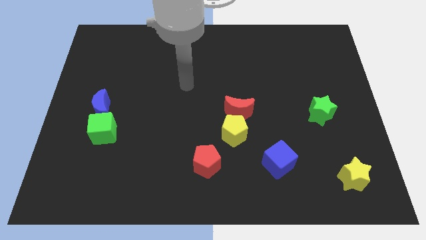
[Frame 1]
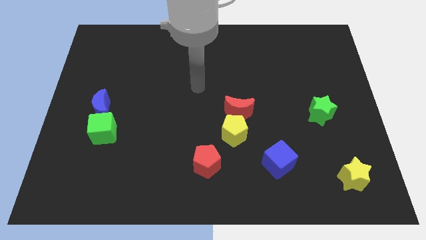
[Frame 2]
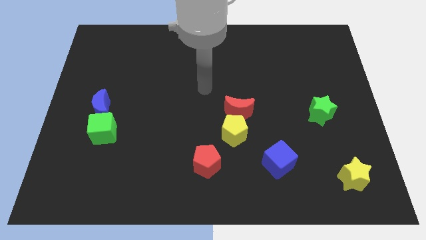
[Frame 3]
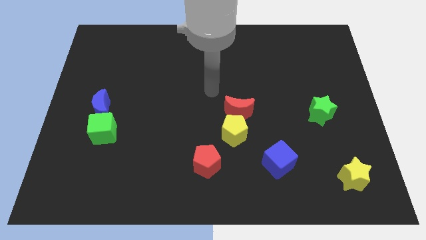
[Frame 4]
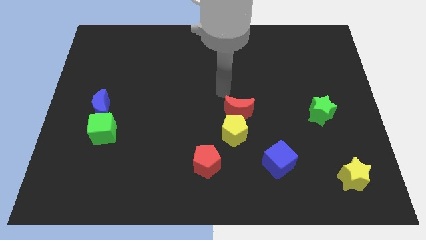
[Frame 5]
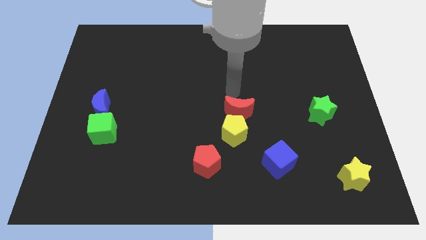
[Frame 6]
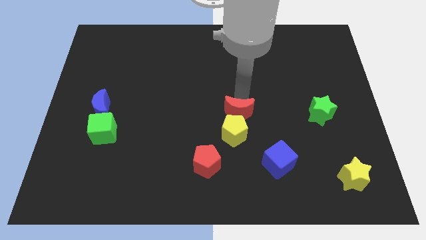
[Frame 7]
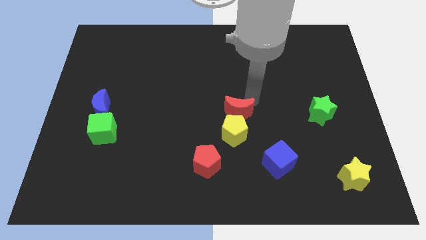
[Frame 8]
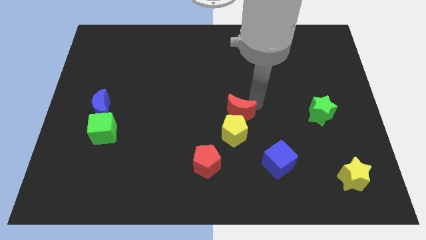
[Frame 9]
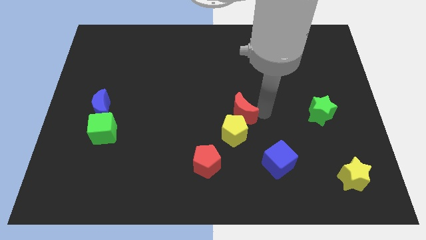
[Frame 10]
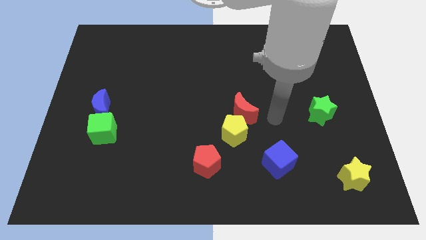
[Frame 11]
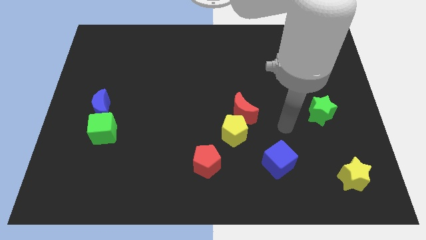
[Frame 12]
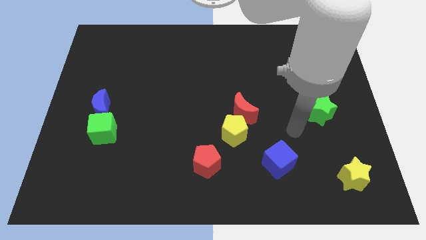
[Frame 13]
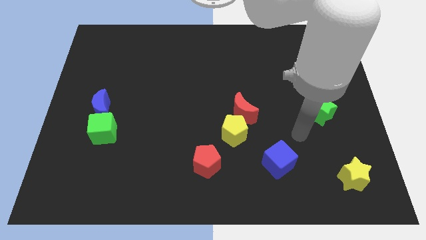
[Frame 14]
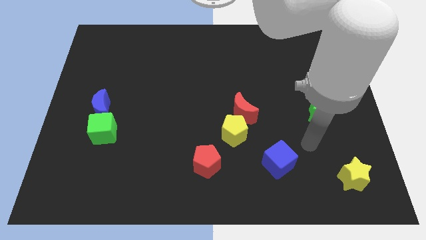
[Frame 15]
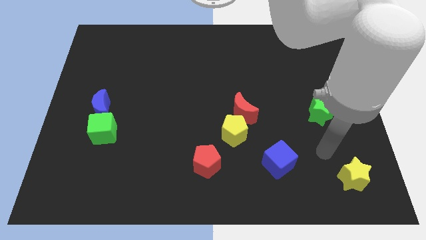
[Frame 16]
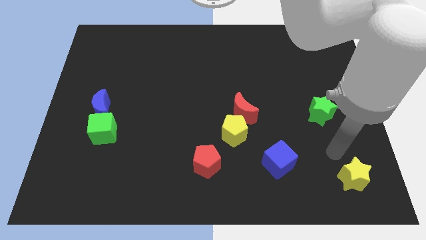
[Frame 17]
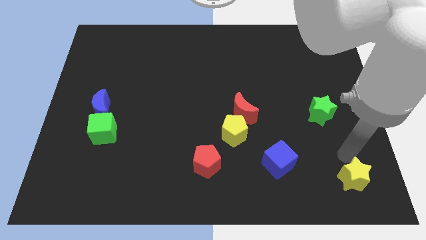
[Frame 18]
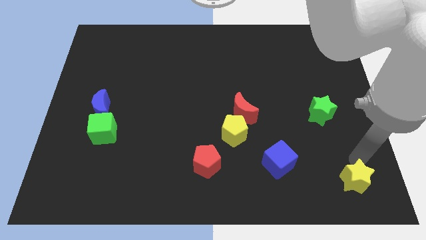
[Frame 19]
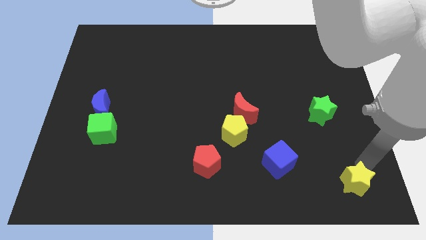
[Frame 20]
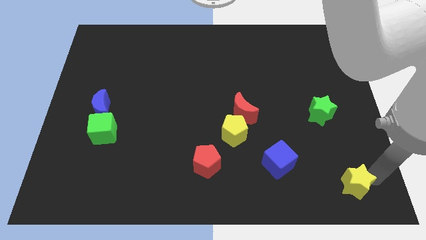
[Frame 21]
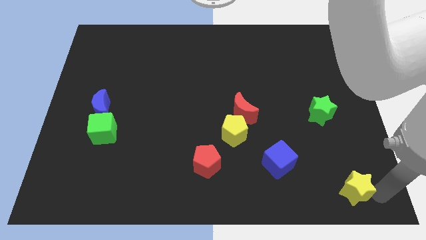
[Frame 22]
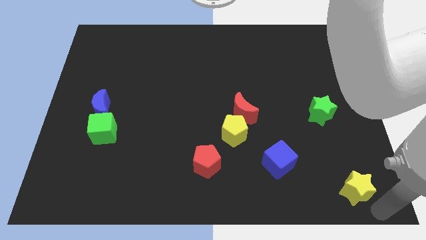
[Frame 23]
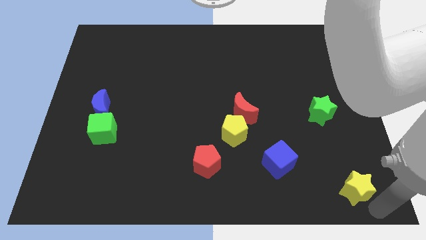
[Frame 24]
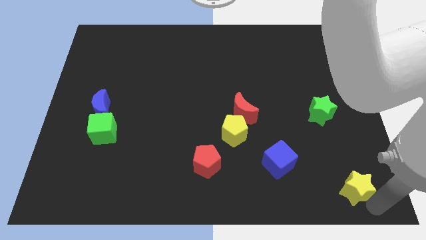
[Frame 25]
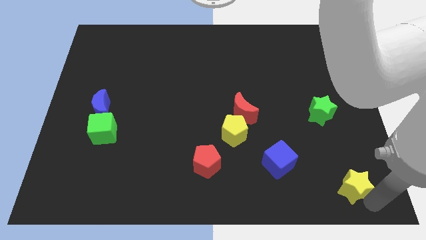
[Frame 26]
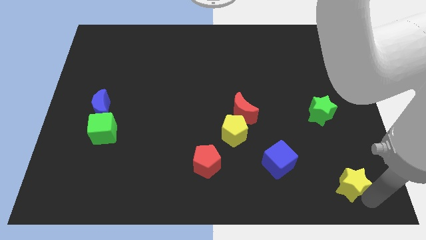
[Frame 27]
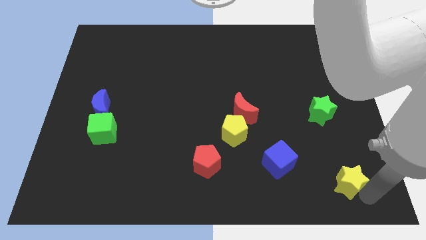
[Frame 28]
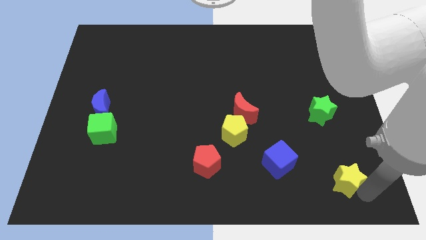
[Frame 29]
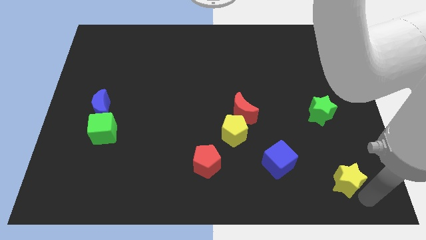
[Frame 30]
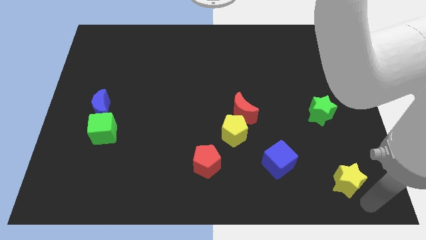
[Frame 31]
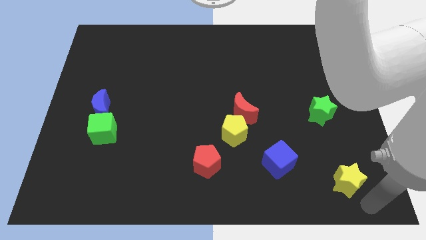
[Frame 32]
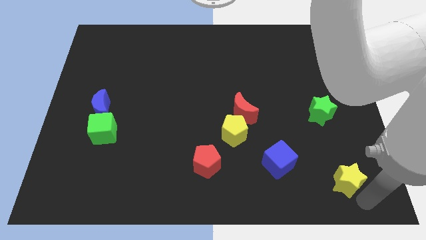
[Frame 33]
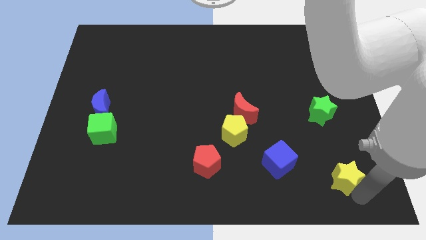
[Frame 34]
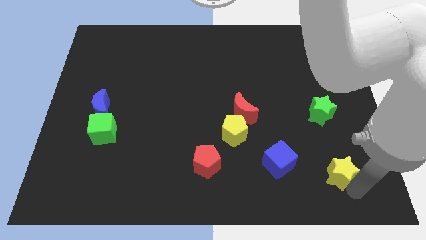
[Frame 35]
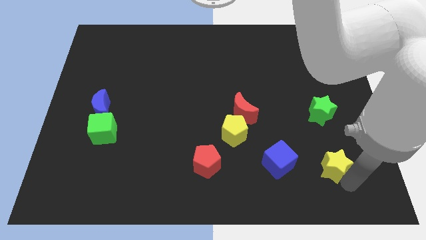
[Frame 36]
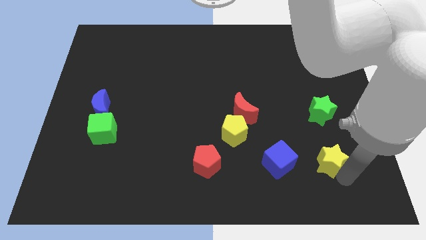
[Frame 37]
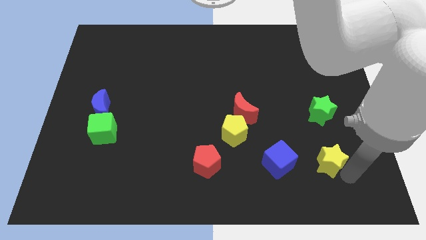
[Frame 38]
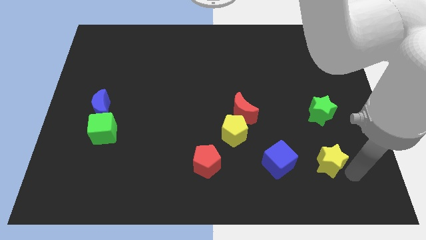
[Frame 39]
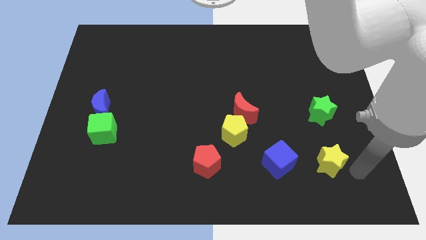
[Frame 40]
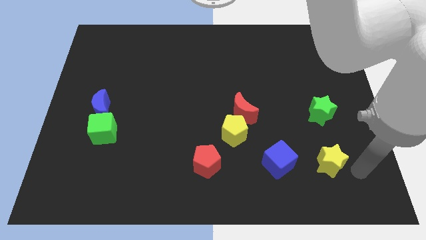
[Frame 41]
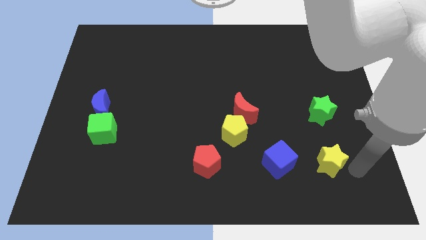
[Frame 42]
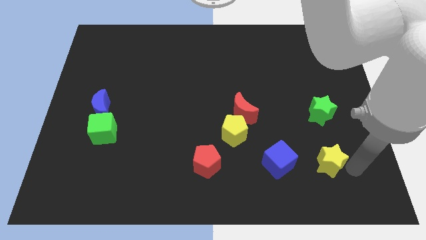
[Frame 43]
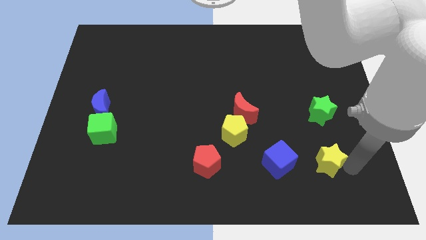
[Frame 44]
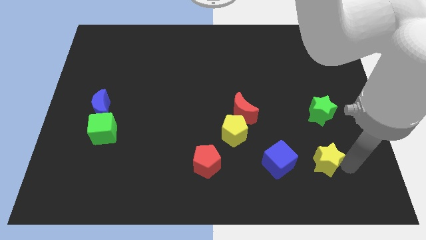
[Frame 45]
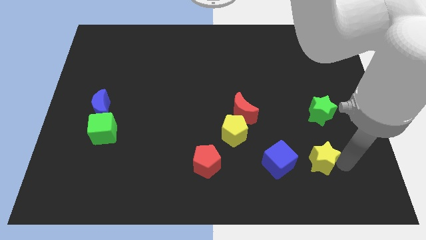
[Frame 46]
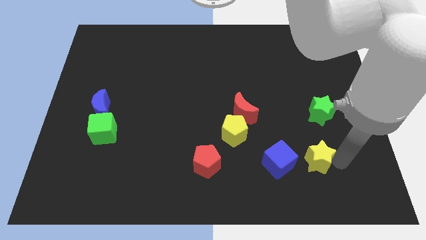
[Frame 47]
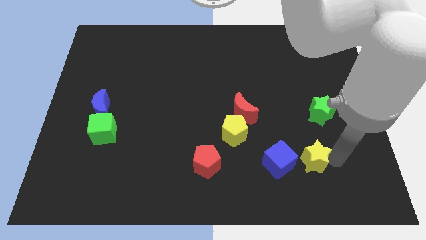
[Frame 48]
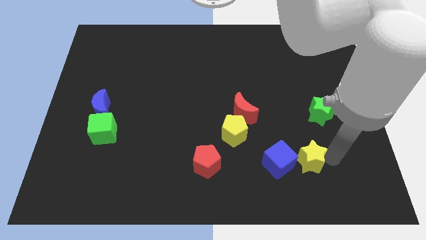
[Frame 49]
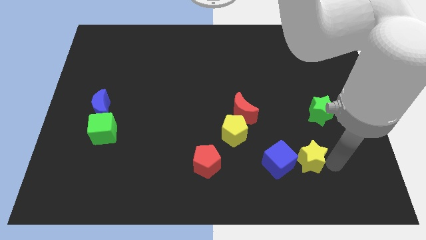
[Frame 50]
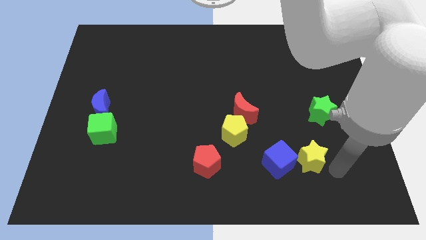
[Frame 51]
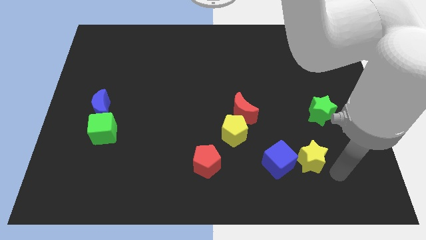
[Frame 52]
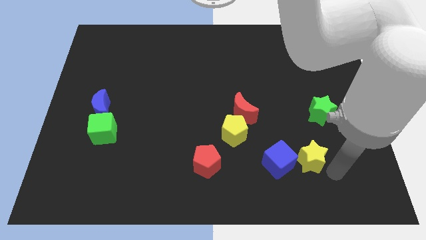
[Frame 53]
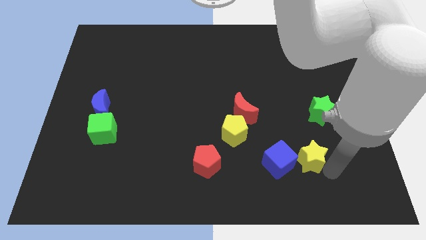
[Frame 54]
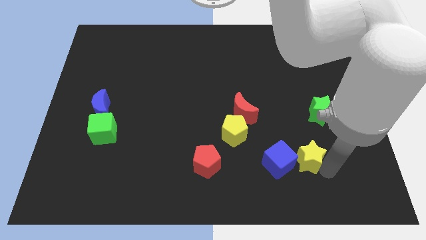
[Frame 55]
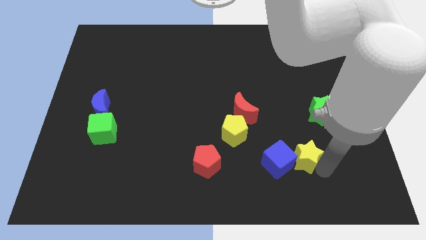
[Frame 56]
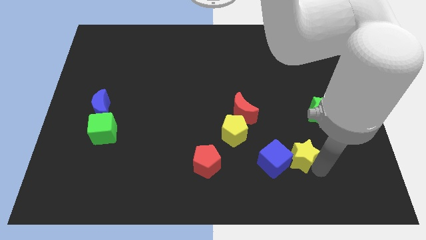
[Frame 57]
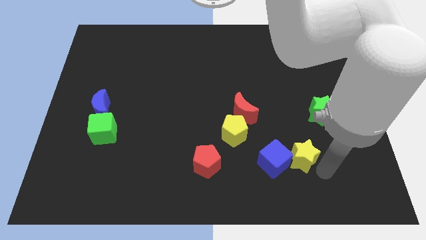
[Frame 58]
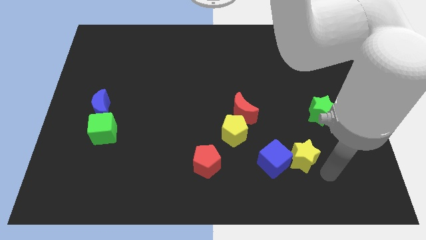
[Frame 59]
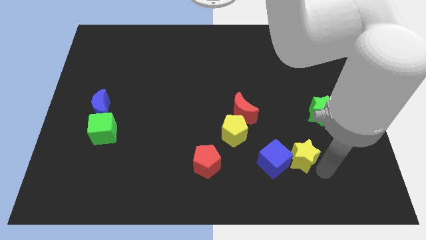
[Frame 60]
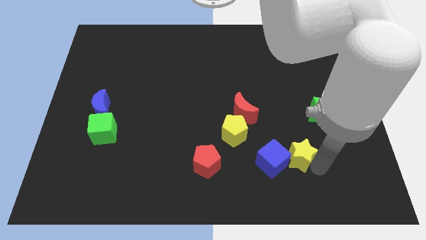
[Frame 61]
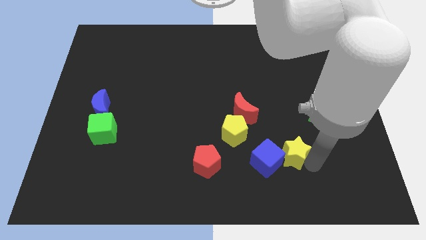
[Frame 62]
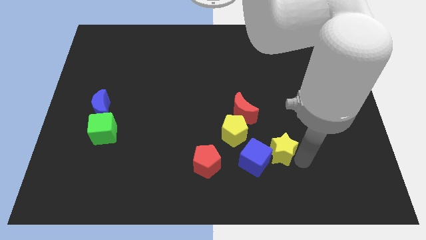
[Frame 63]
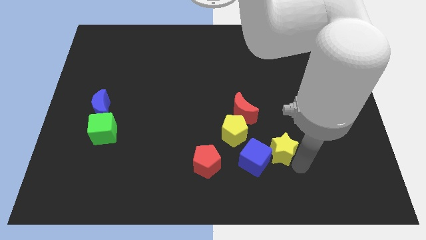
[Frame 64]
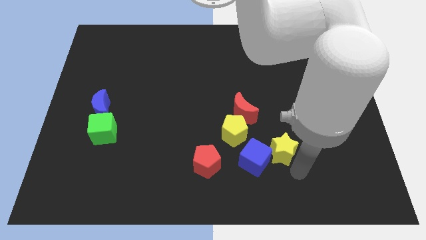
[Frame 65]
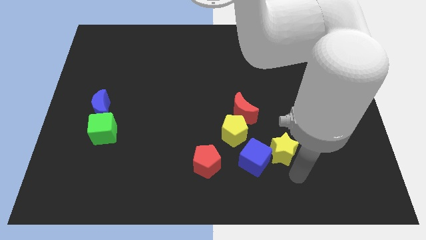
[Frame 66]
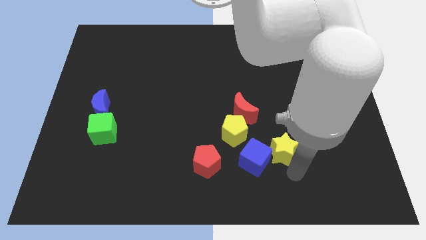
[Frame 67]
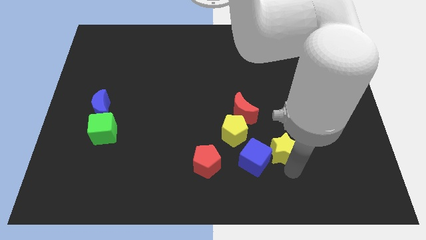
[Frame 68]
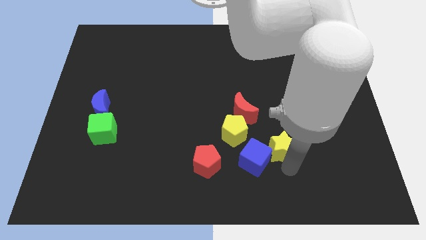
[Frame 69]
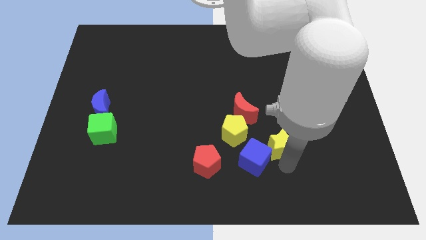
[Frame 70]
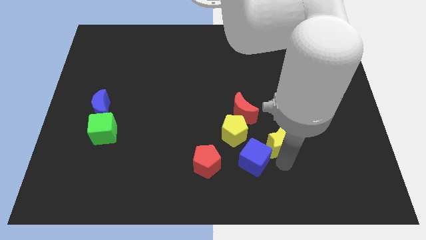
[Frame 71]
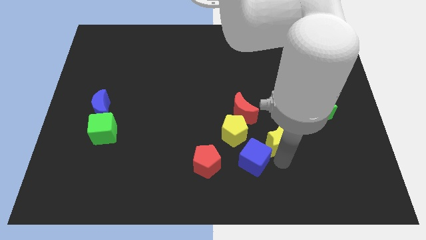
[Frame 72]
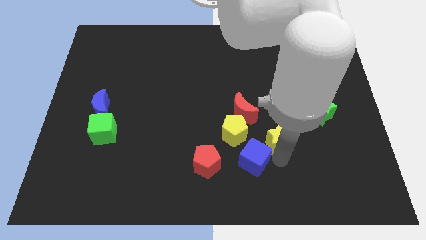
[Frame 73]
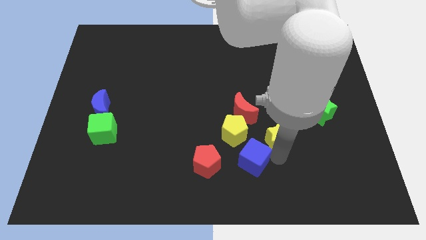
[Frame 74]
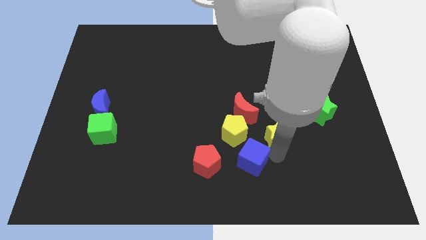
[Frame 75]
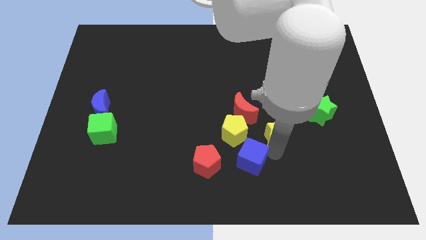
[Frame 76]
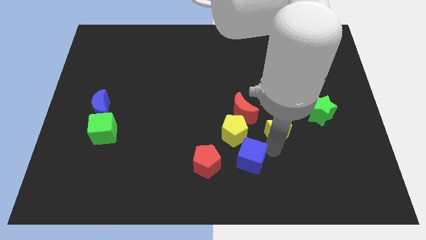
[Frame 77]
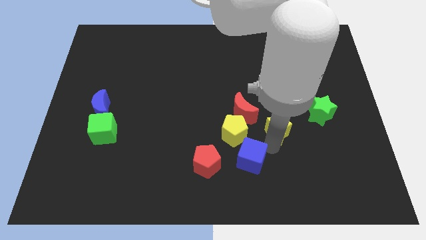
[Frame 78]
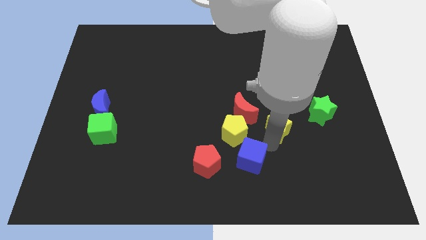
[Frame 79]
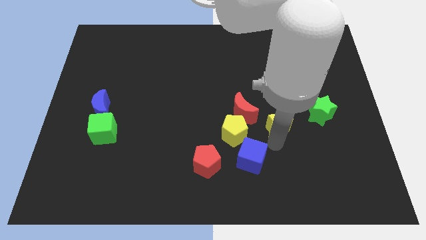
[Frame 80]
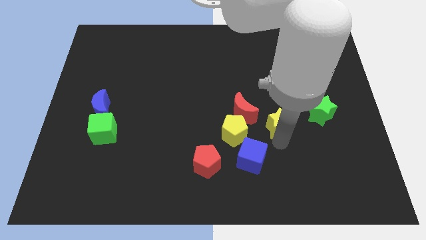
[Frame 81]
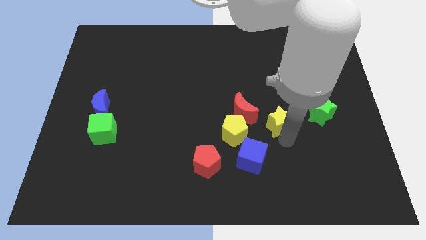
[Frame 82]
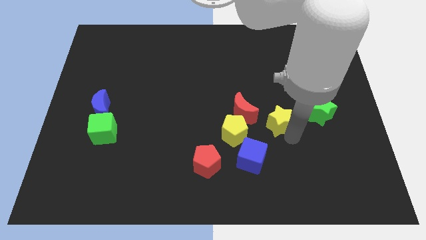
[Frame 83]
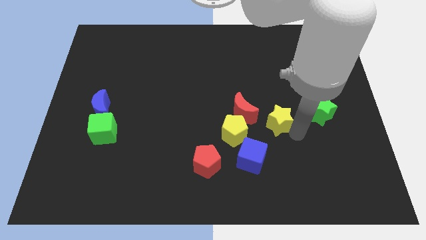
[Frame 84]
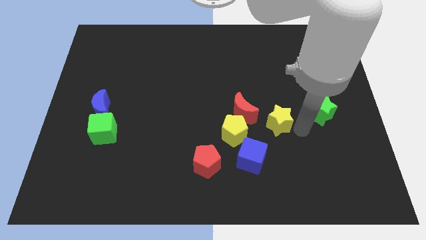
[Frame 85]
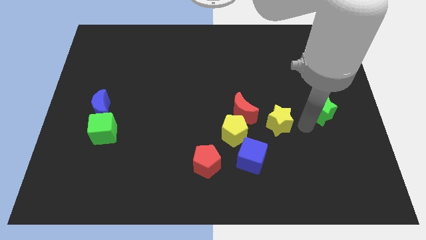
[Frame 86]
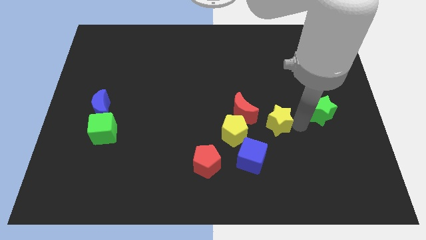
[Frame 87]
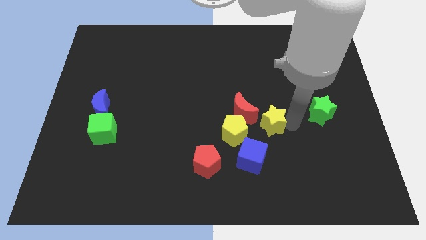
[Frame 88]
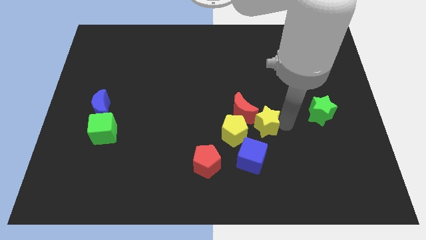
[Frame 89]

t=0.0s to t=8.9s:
move the yellow star next to the red moon
